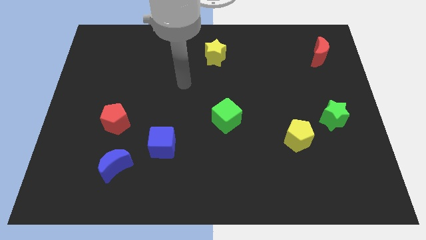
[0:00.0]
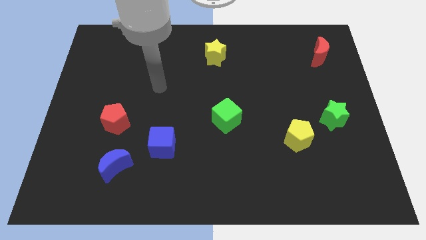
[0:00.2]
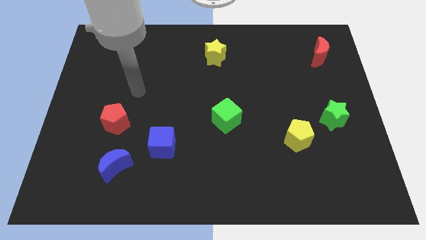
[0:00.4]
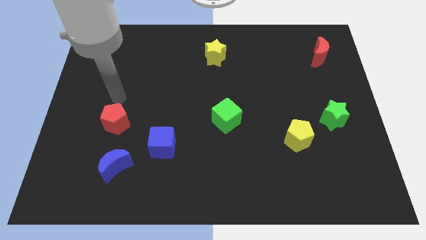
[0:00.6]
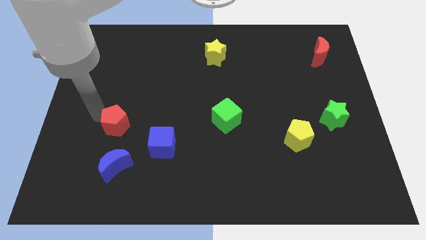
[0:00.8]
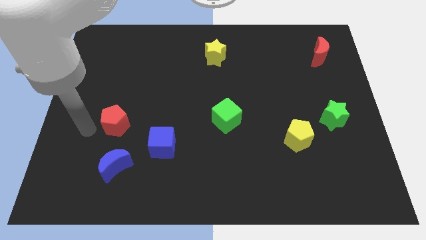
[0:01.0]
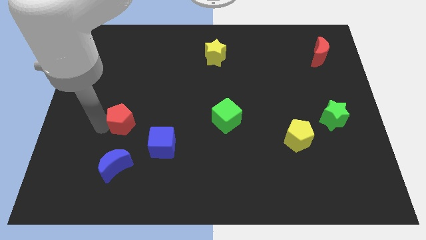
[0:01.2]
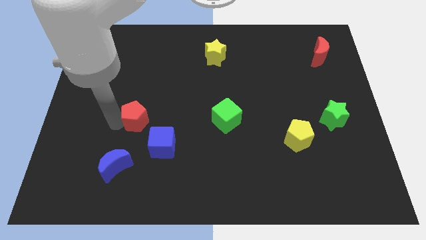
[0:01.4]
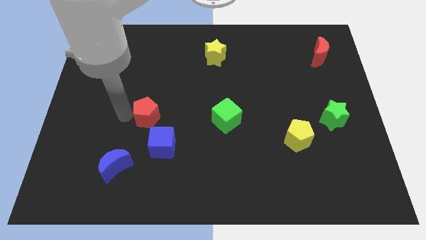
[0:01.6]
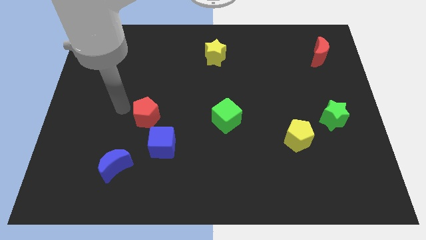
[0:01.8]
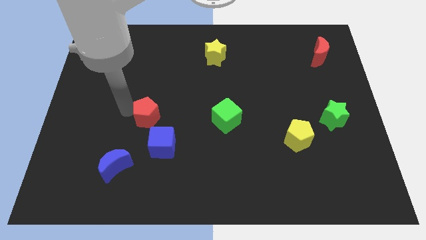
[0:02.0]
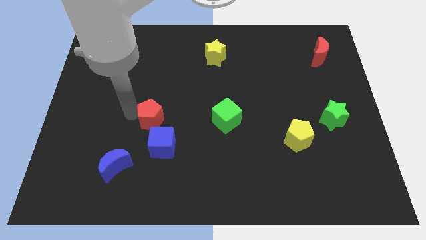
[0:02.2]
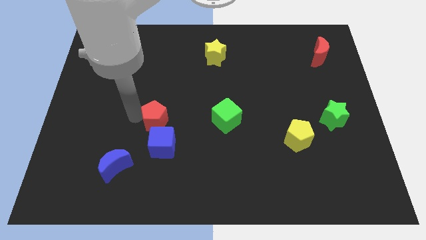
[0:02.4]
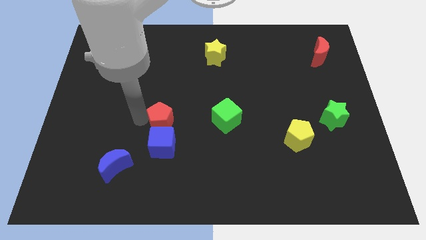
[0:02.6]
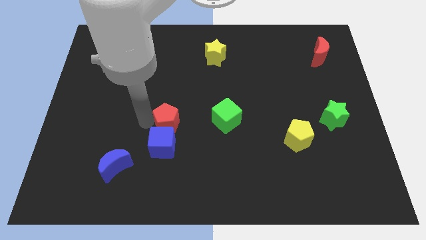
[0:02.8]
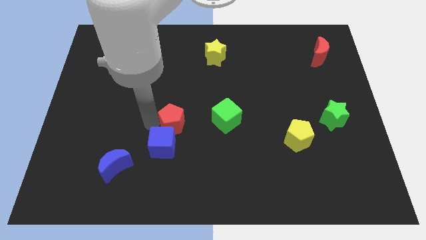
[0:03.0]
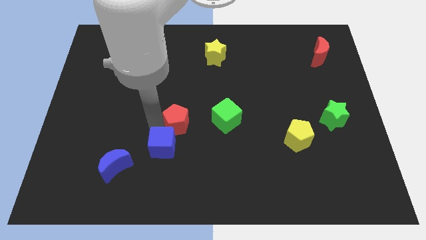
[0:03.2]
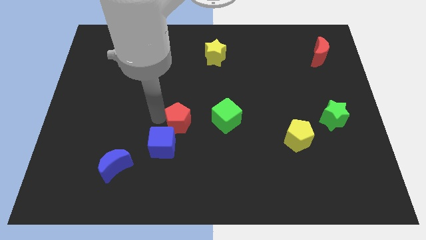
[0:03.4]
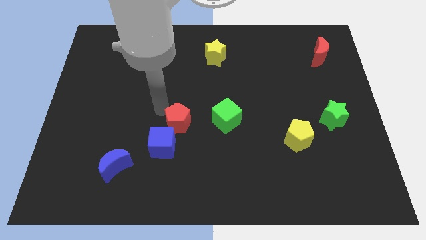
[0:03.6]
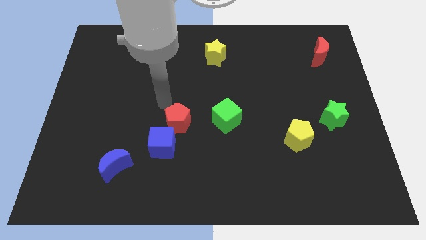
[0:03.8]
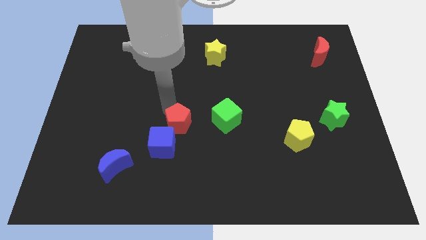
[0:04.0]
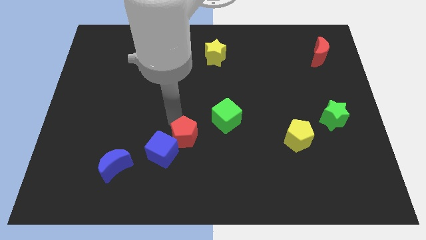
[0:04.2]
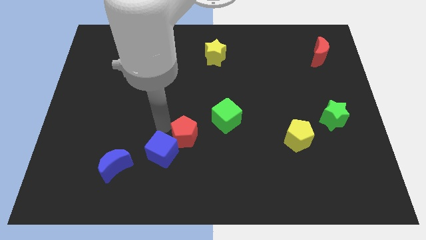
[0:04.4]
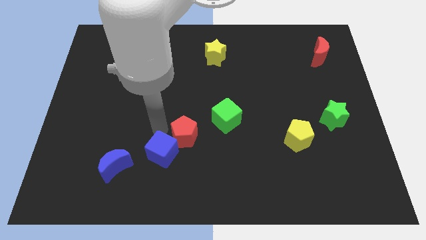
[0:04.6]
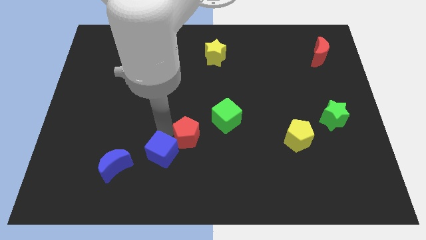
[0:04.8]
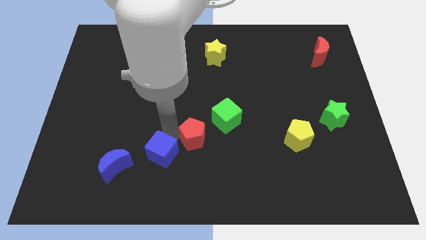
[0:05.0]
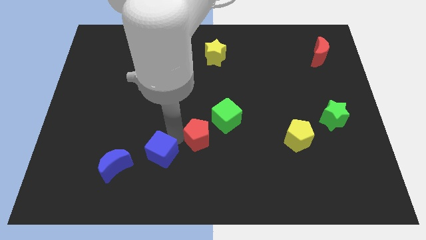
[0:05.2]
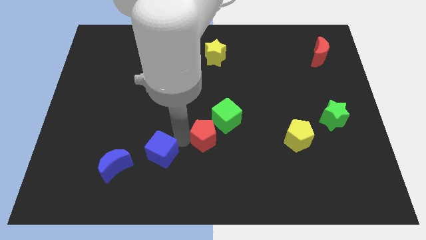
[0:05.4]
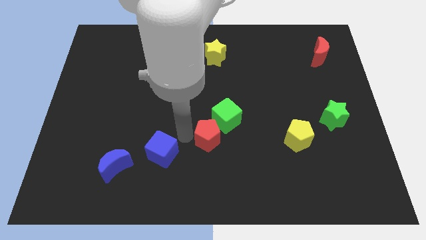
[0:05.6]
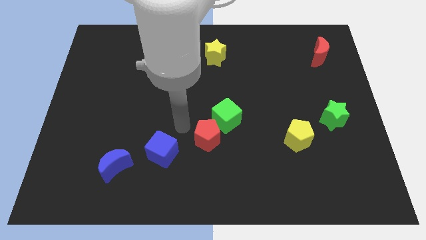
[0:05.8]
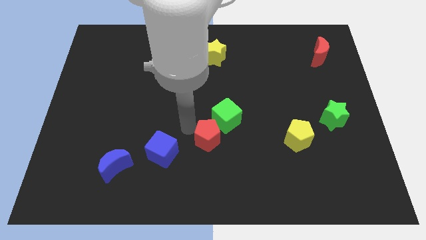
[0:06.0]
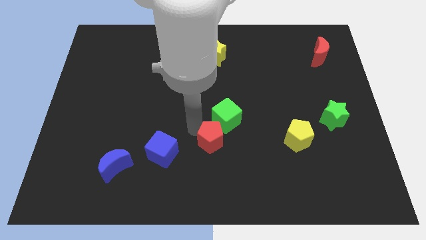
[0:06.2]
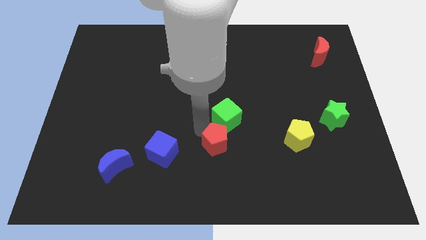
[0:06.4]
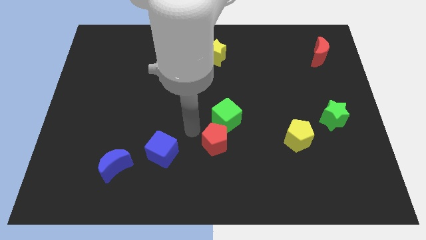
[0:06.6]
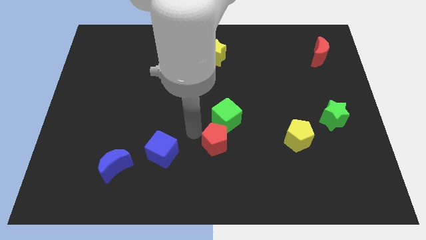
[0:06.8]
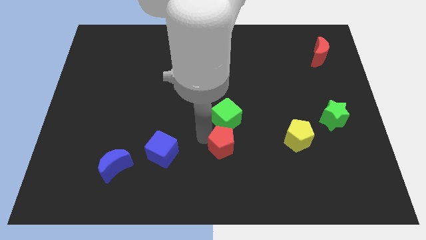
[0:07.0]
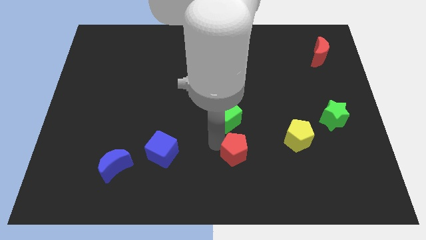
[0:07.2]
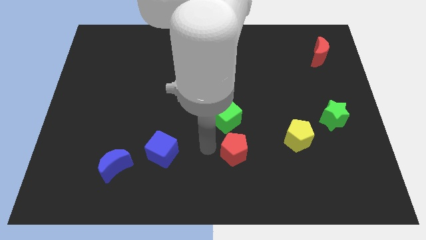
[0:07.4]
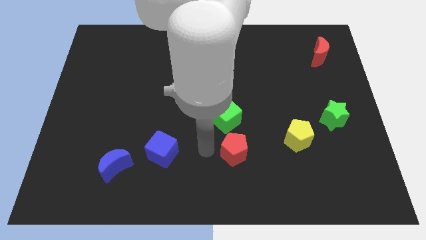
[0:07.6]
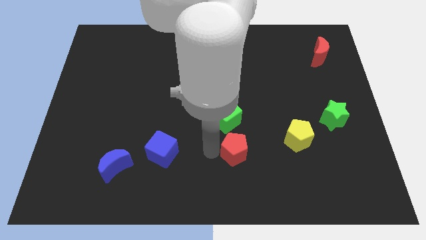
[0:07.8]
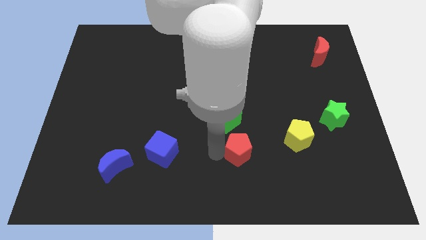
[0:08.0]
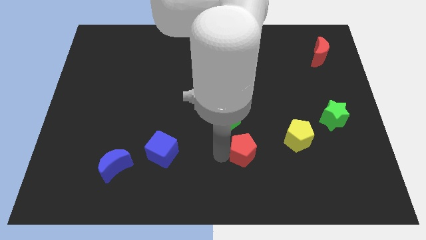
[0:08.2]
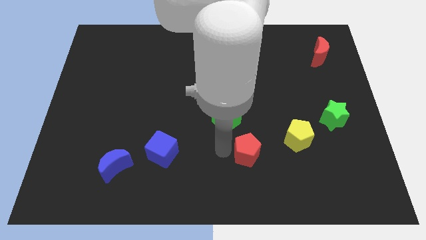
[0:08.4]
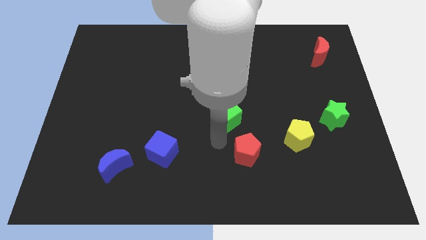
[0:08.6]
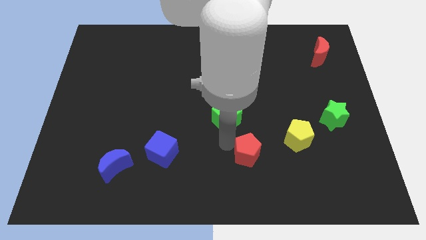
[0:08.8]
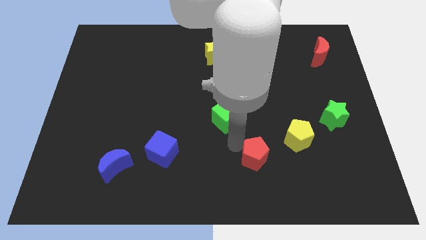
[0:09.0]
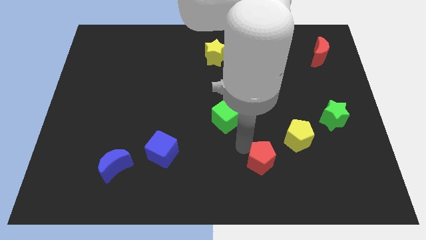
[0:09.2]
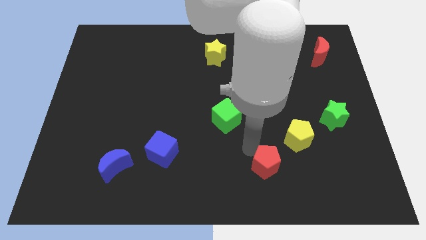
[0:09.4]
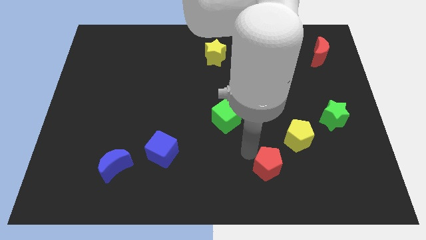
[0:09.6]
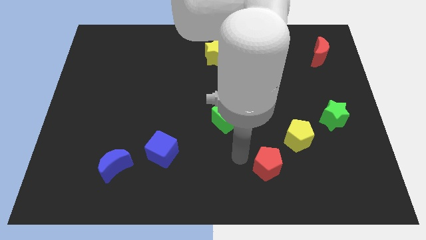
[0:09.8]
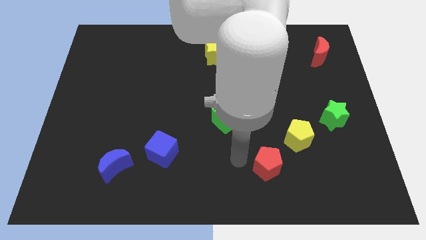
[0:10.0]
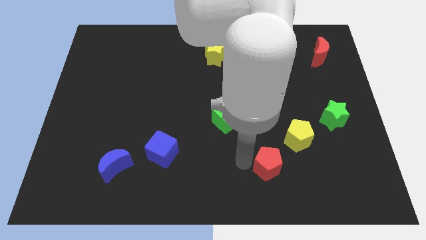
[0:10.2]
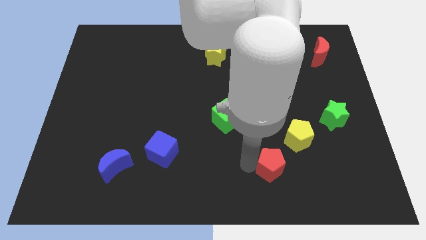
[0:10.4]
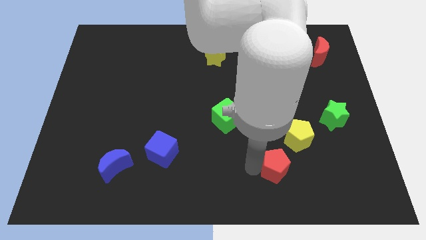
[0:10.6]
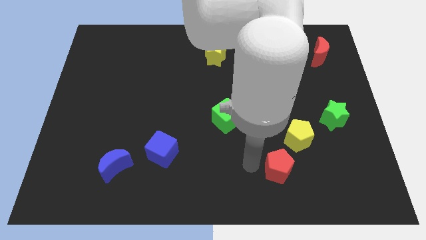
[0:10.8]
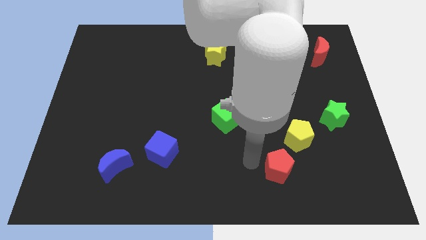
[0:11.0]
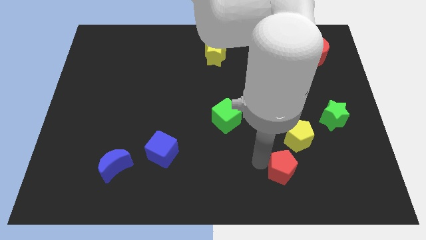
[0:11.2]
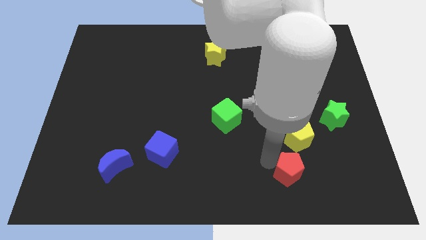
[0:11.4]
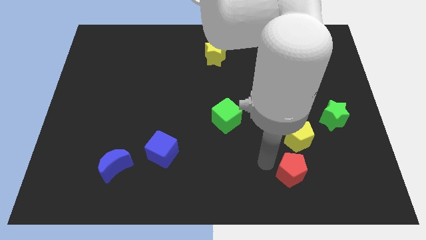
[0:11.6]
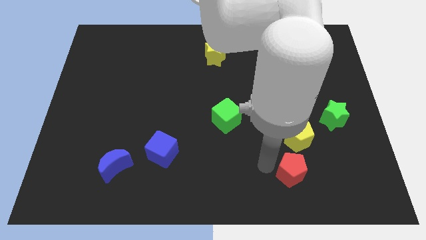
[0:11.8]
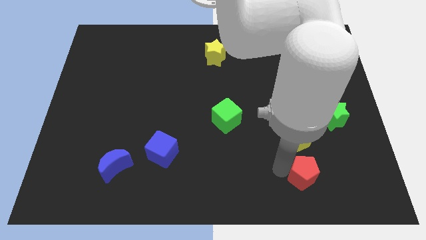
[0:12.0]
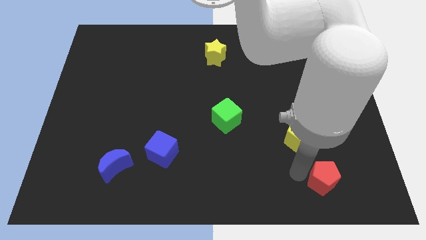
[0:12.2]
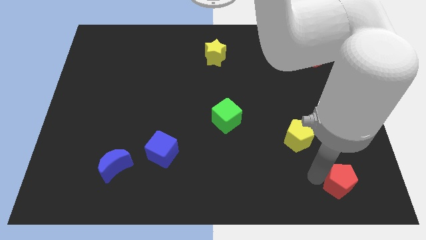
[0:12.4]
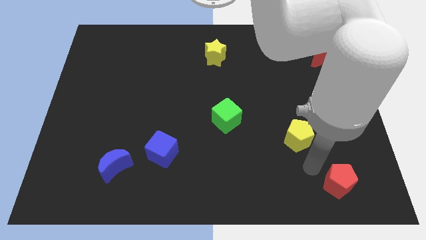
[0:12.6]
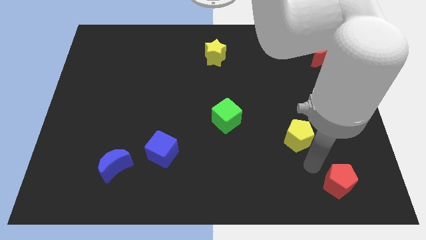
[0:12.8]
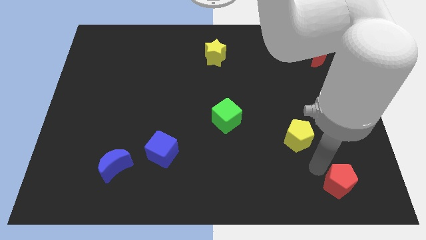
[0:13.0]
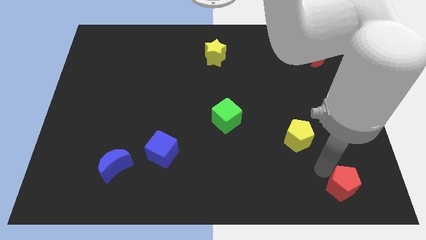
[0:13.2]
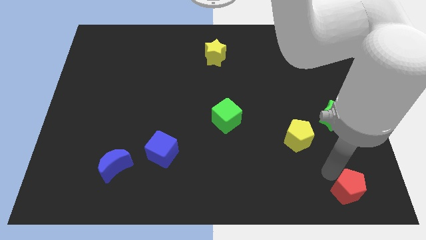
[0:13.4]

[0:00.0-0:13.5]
move the red pentagon to the bottom right of the board
